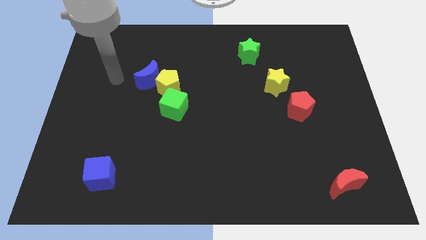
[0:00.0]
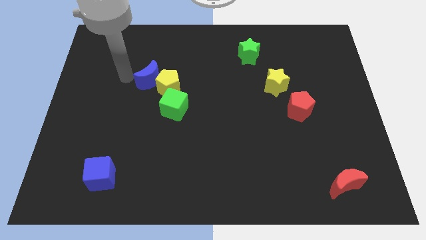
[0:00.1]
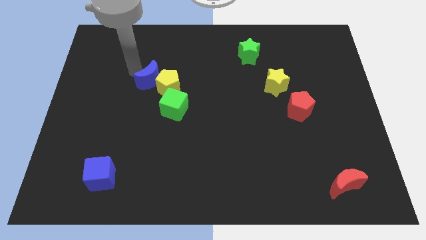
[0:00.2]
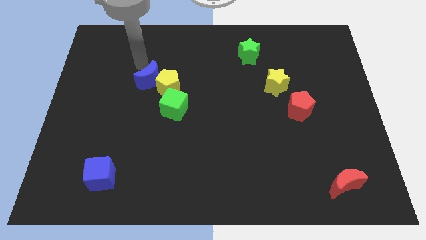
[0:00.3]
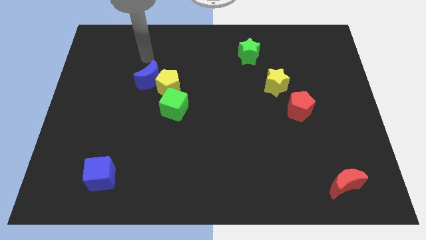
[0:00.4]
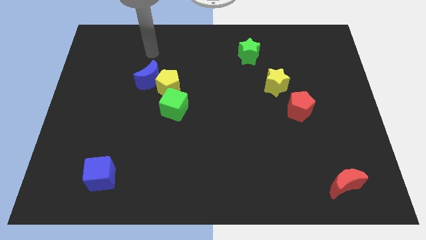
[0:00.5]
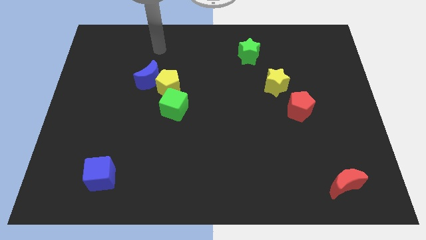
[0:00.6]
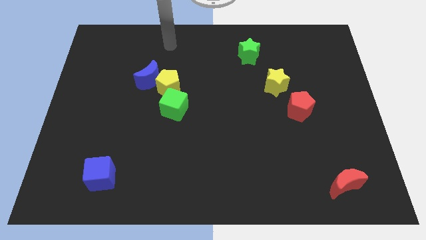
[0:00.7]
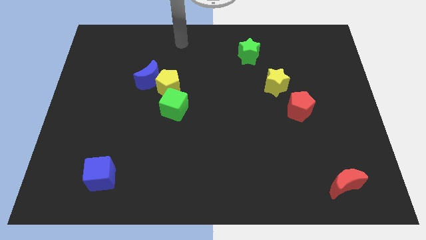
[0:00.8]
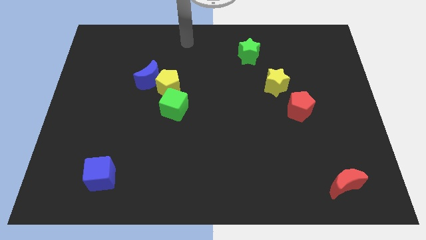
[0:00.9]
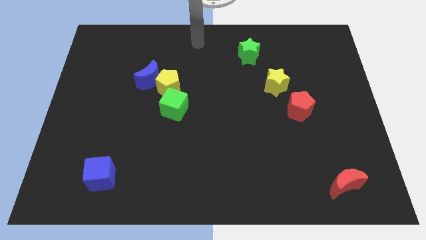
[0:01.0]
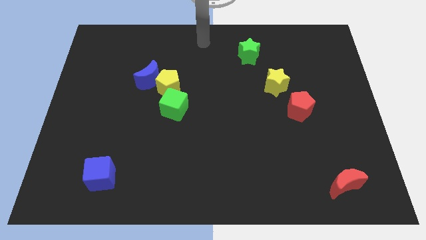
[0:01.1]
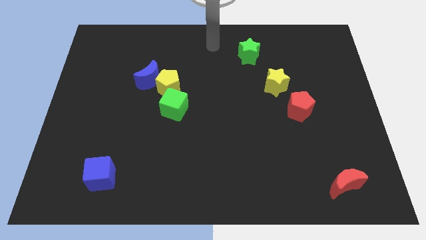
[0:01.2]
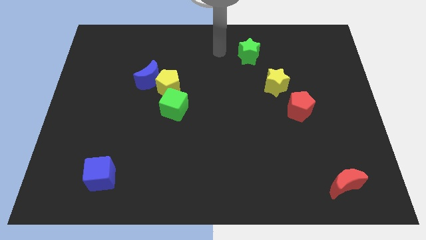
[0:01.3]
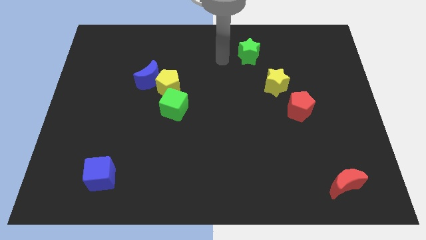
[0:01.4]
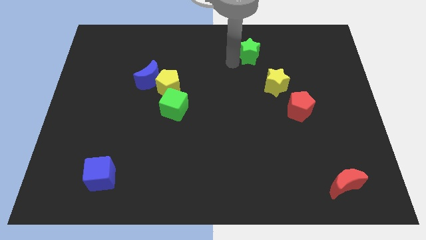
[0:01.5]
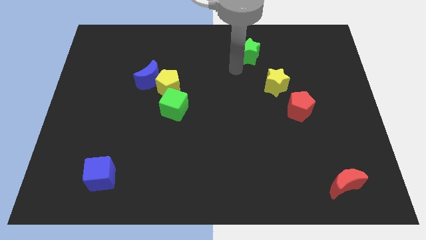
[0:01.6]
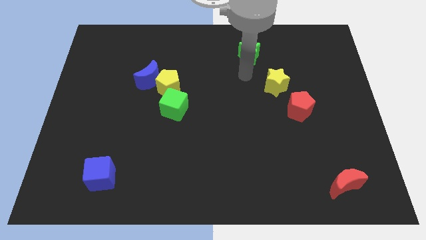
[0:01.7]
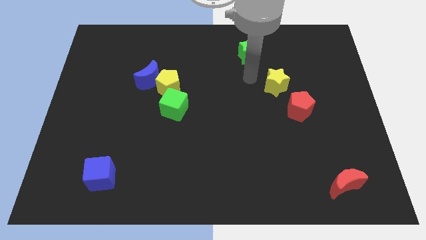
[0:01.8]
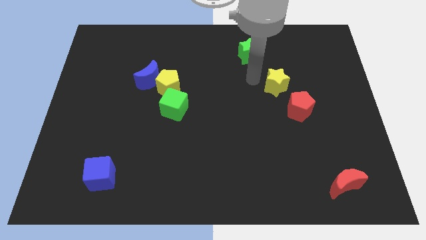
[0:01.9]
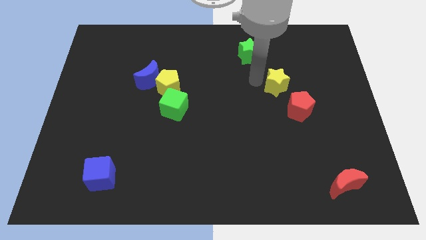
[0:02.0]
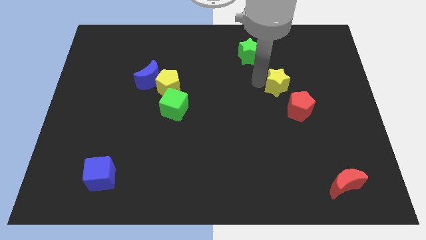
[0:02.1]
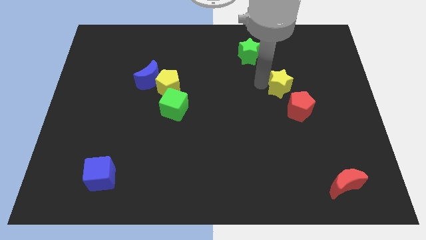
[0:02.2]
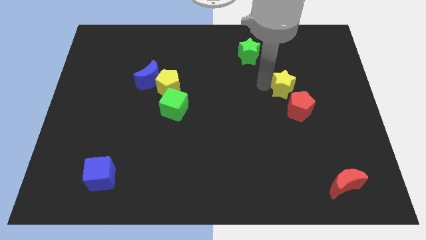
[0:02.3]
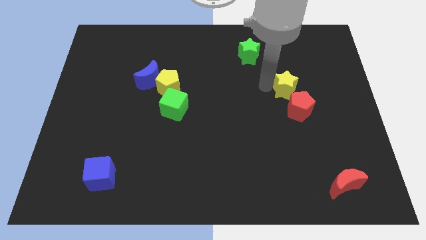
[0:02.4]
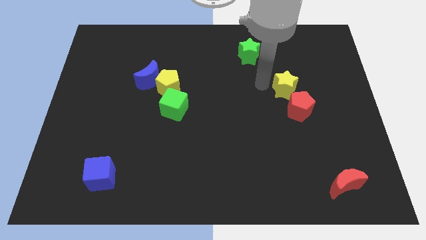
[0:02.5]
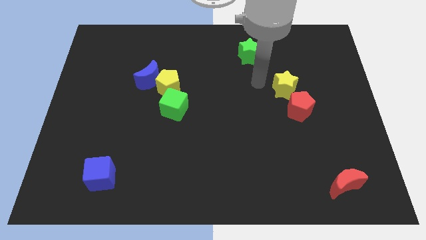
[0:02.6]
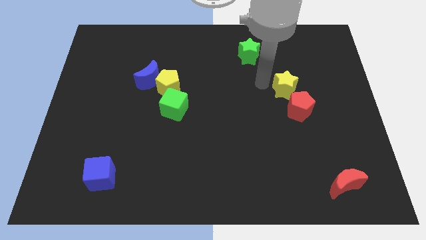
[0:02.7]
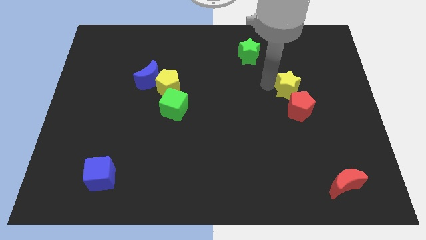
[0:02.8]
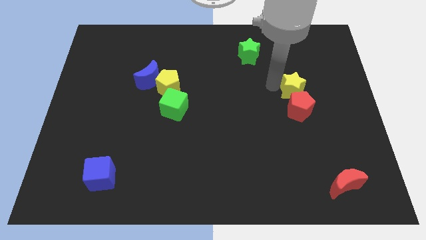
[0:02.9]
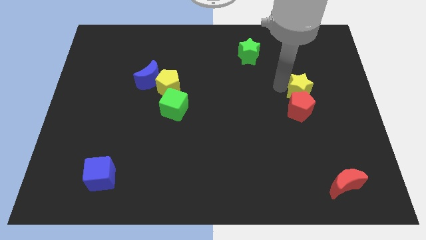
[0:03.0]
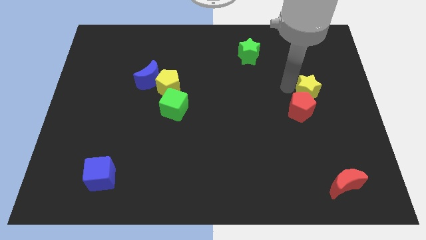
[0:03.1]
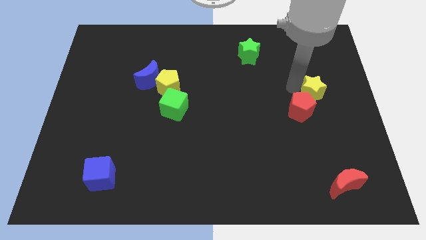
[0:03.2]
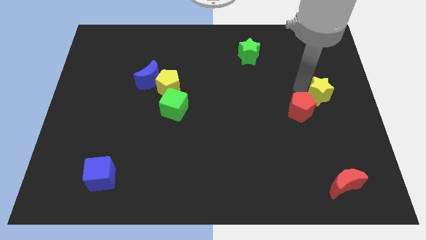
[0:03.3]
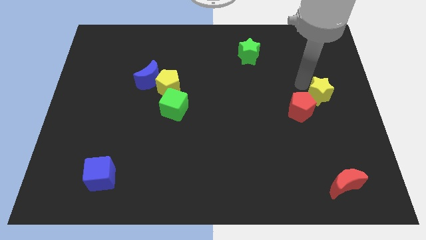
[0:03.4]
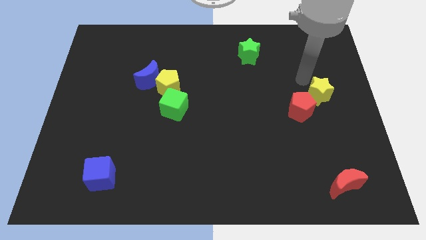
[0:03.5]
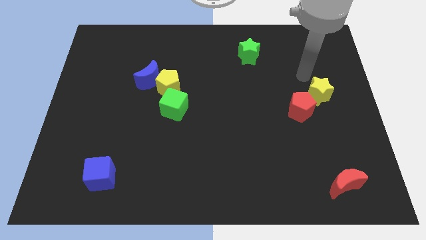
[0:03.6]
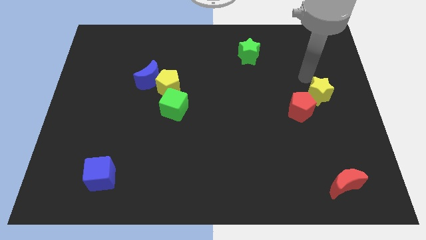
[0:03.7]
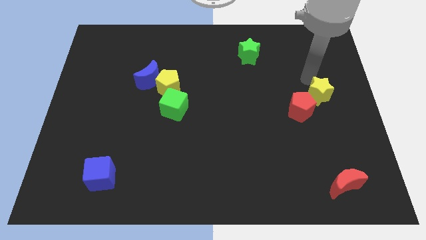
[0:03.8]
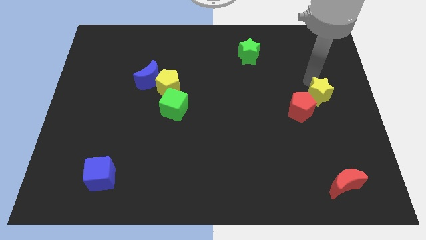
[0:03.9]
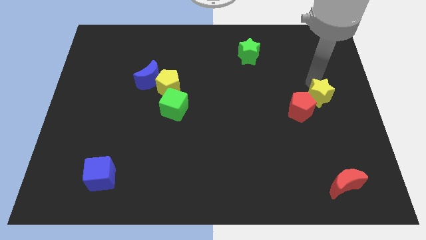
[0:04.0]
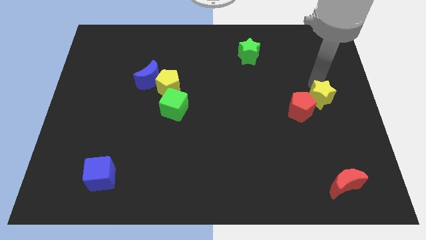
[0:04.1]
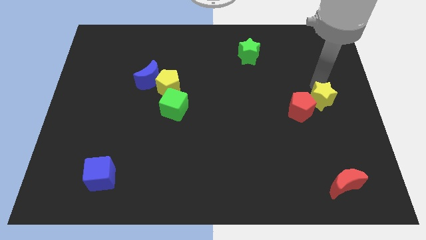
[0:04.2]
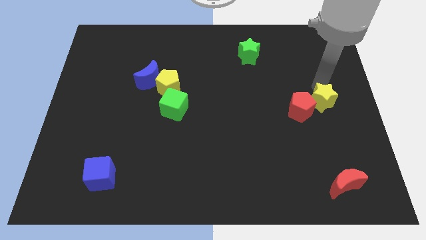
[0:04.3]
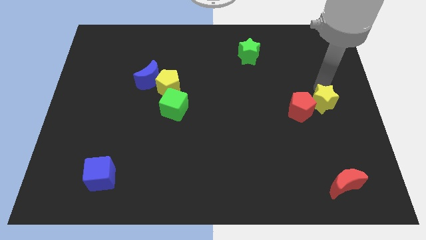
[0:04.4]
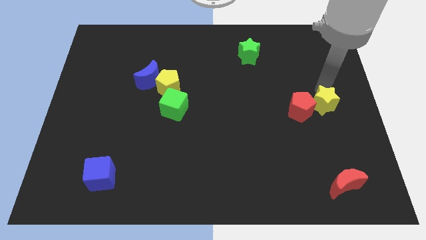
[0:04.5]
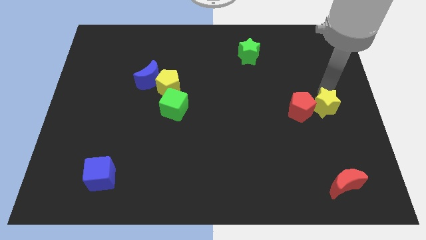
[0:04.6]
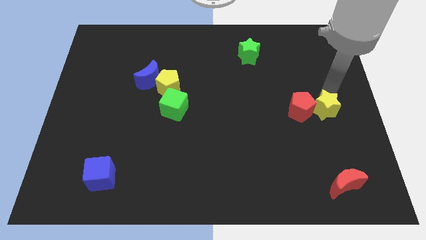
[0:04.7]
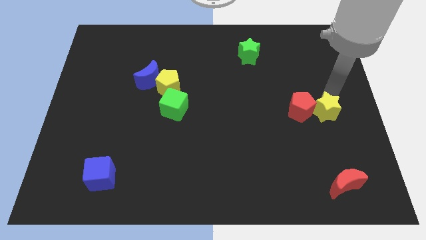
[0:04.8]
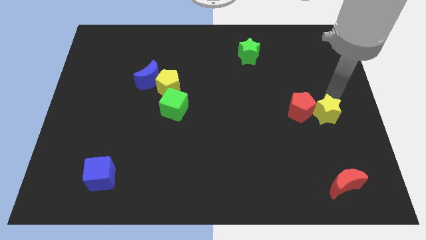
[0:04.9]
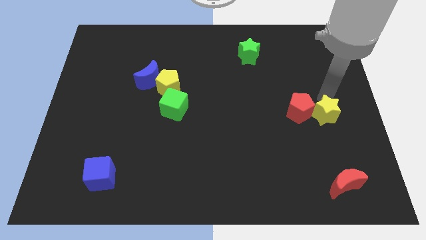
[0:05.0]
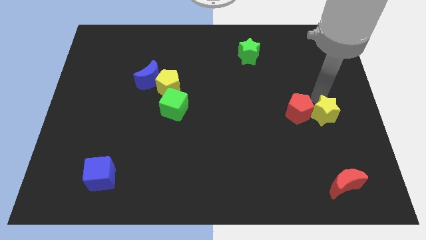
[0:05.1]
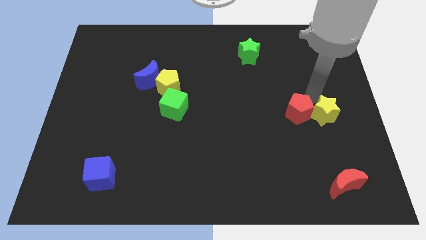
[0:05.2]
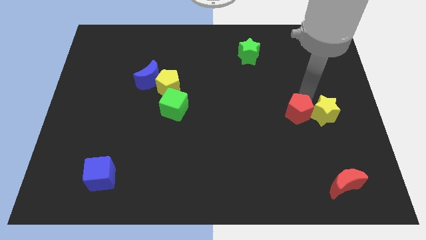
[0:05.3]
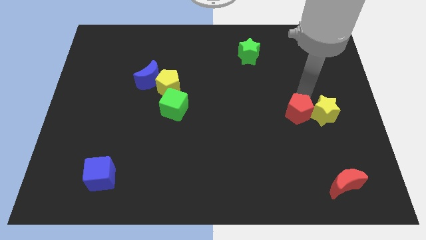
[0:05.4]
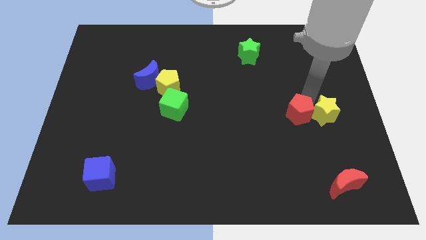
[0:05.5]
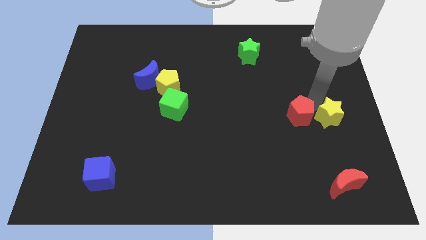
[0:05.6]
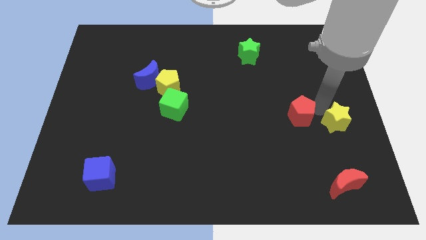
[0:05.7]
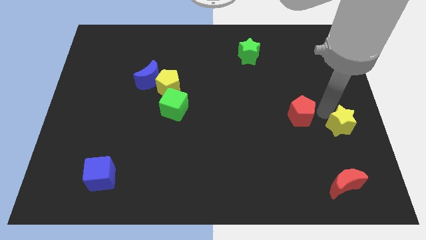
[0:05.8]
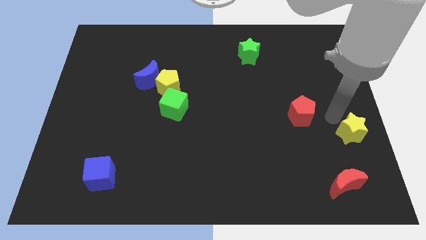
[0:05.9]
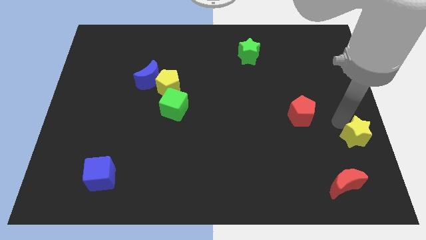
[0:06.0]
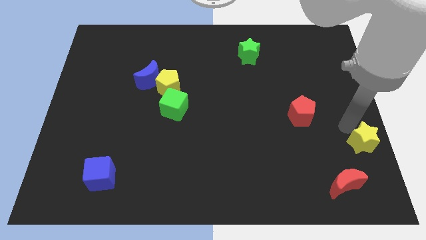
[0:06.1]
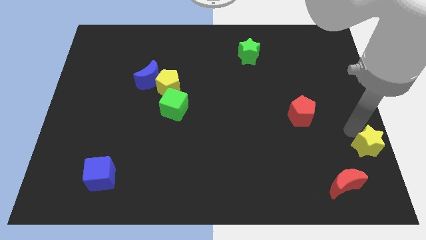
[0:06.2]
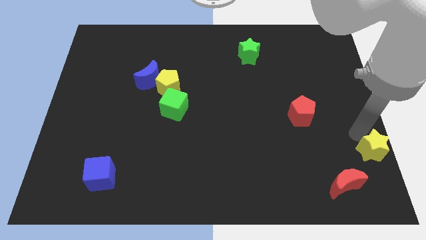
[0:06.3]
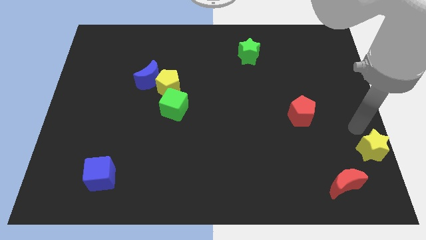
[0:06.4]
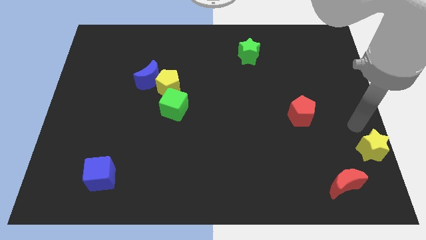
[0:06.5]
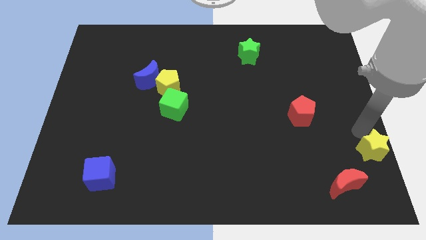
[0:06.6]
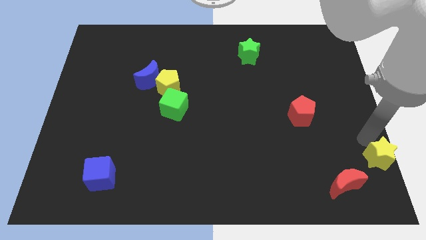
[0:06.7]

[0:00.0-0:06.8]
slide the yellow star to the bottom right of the board
